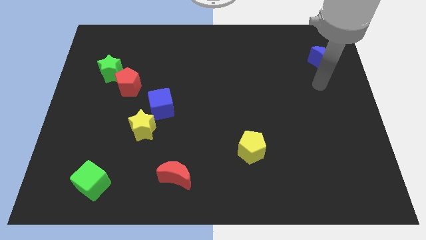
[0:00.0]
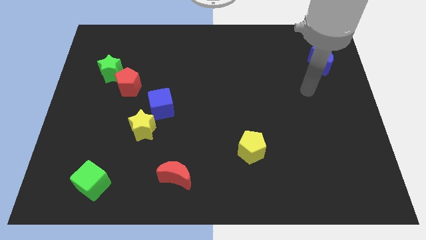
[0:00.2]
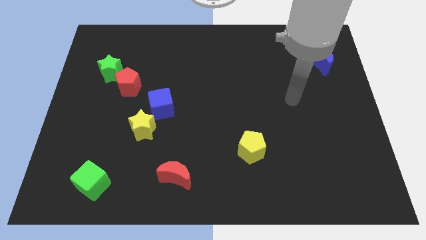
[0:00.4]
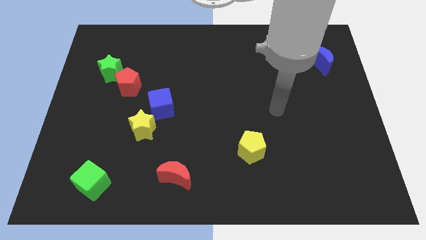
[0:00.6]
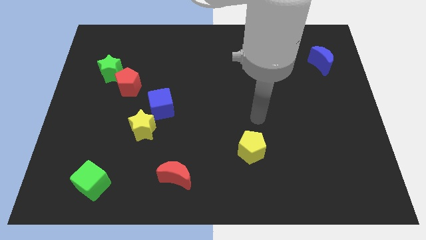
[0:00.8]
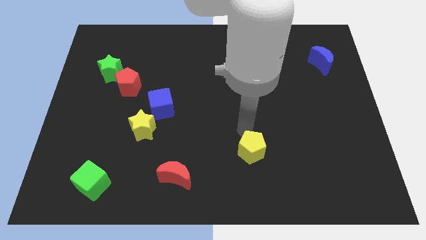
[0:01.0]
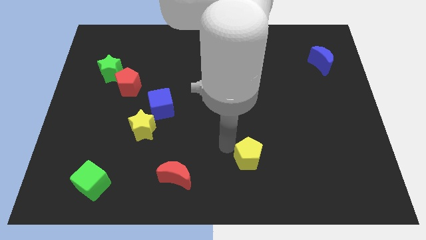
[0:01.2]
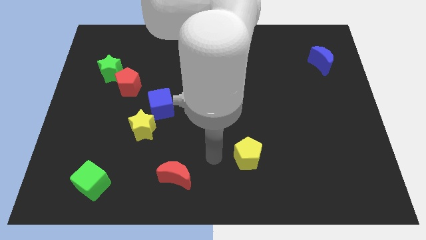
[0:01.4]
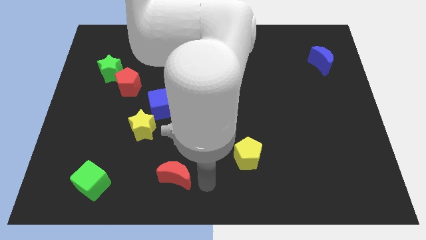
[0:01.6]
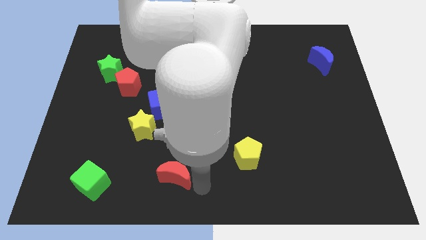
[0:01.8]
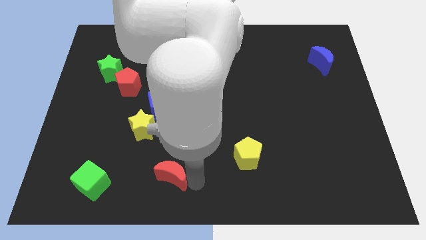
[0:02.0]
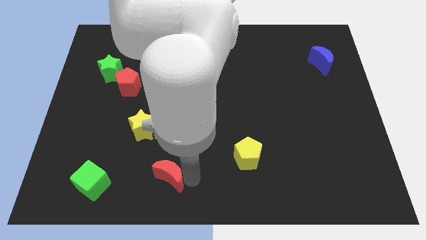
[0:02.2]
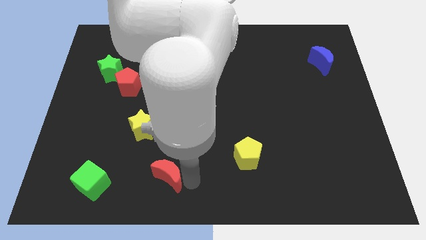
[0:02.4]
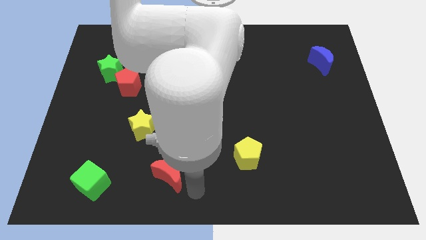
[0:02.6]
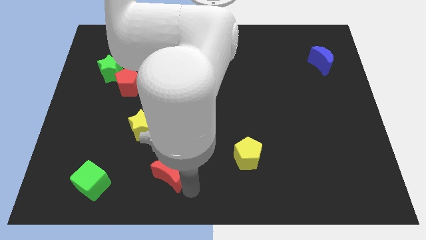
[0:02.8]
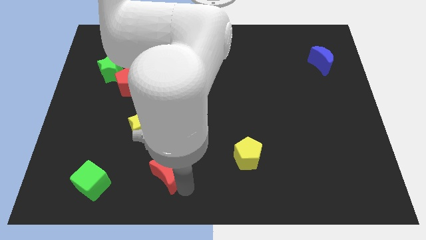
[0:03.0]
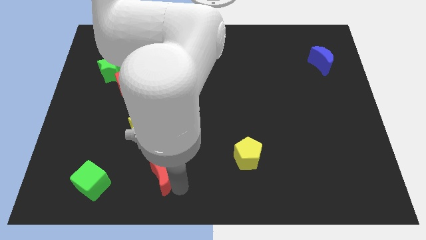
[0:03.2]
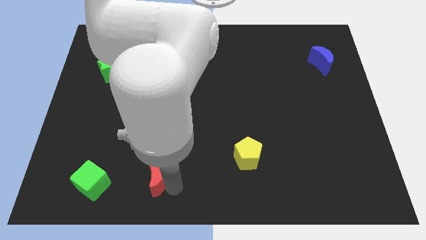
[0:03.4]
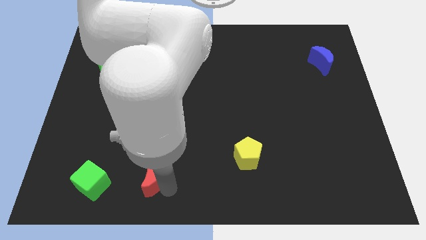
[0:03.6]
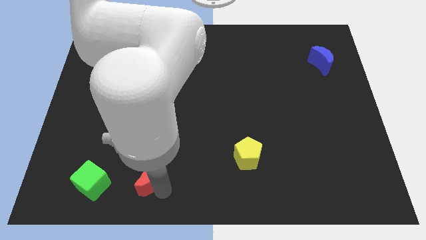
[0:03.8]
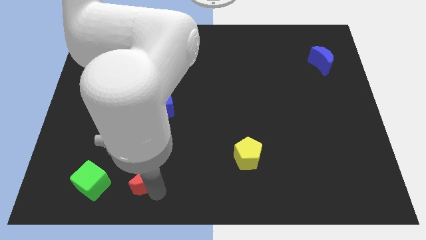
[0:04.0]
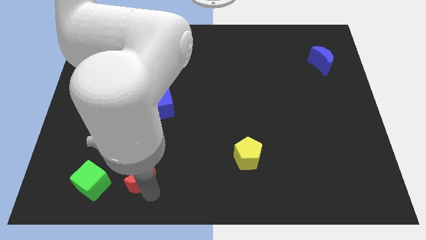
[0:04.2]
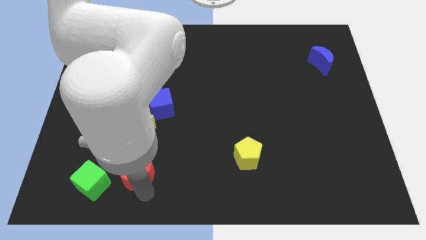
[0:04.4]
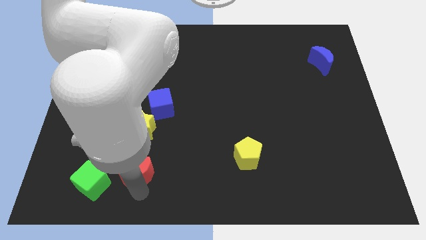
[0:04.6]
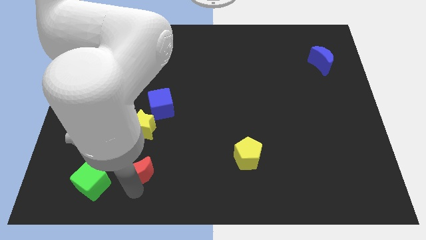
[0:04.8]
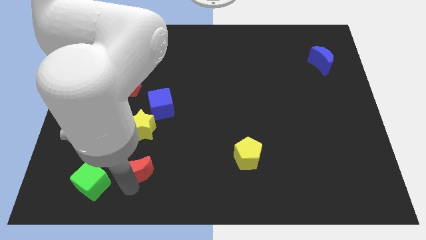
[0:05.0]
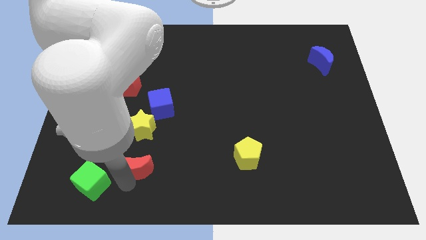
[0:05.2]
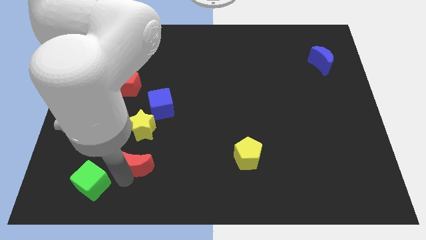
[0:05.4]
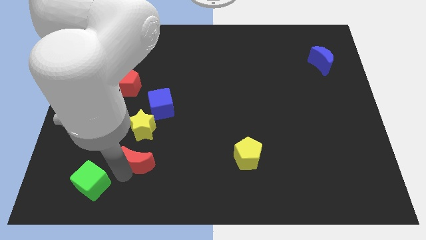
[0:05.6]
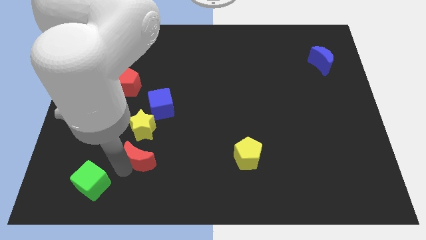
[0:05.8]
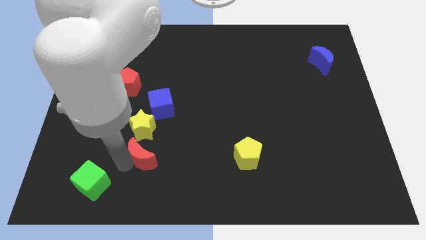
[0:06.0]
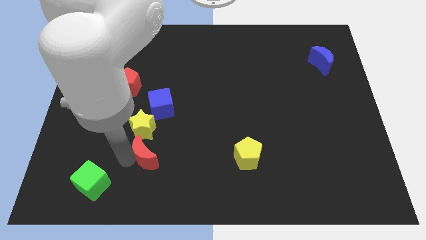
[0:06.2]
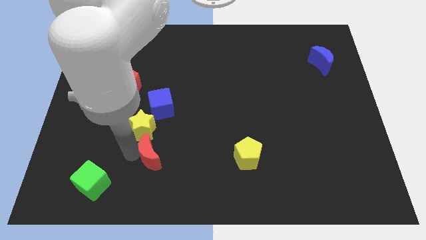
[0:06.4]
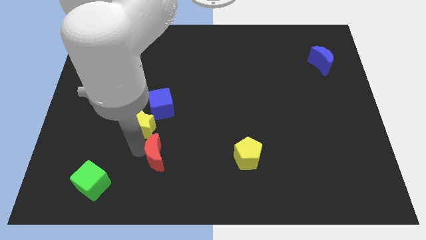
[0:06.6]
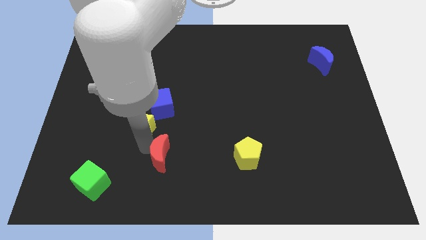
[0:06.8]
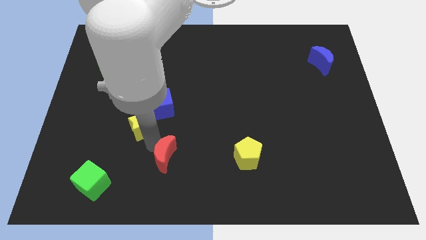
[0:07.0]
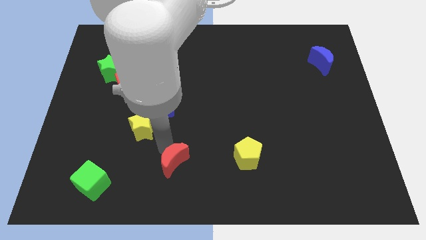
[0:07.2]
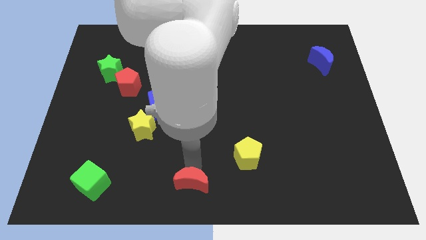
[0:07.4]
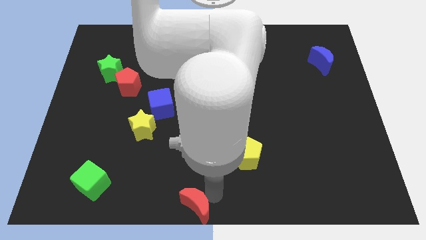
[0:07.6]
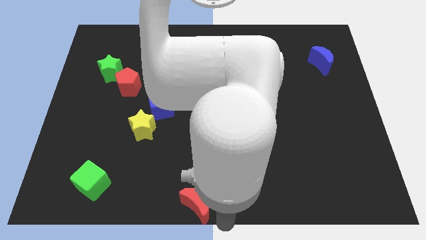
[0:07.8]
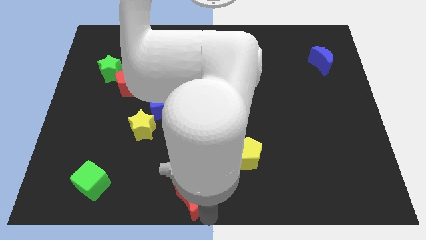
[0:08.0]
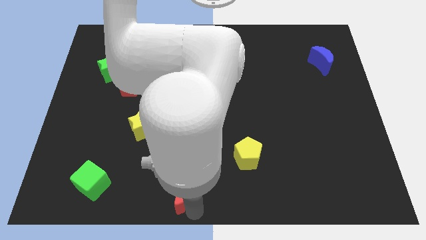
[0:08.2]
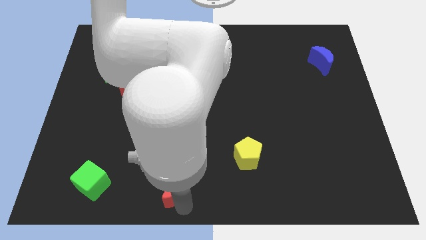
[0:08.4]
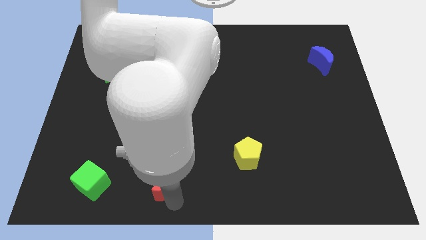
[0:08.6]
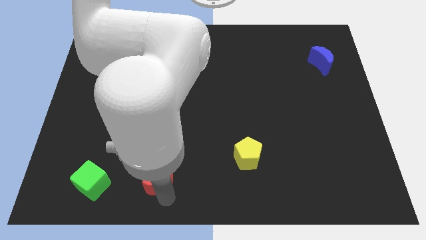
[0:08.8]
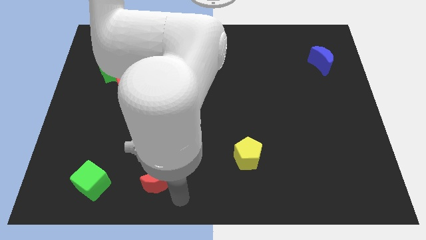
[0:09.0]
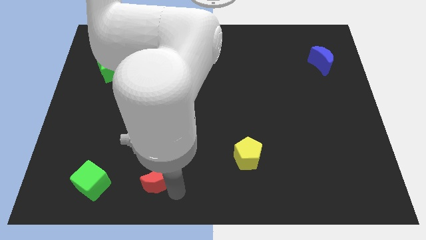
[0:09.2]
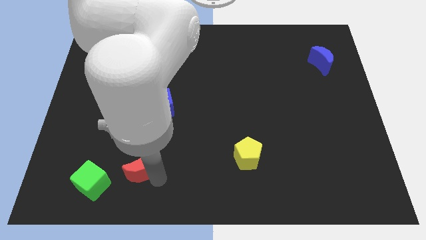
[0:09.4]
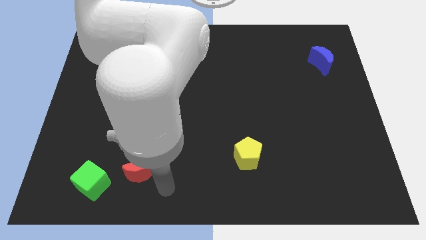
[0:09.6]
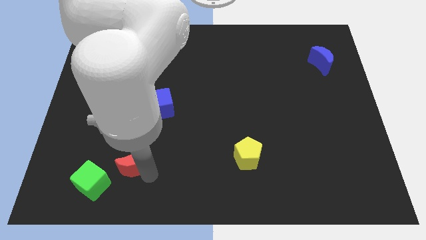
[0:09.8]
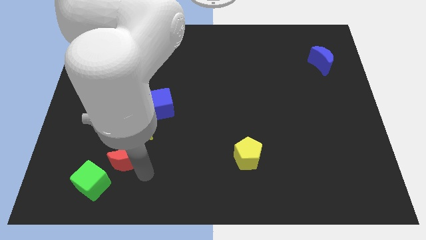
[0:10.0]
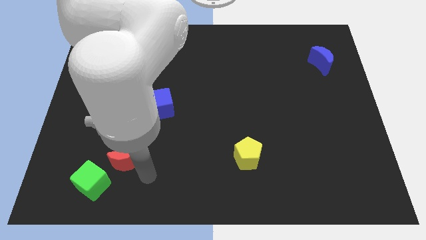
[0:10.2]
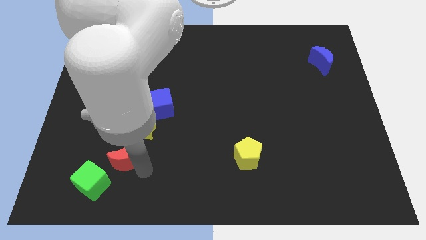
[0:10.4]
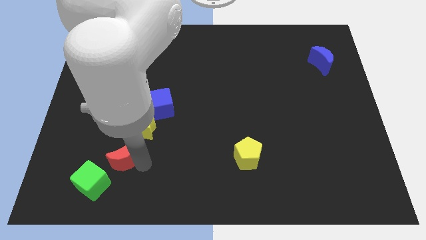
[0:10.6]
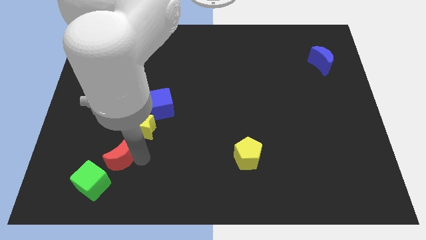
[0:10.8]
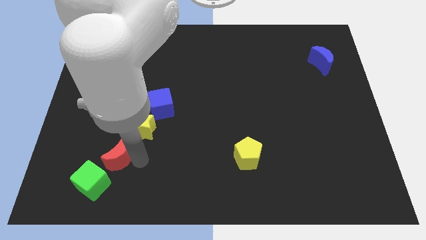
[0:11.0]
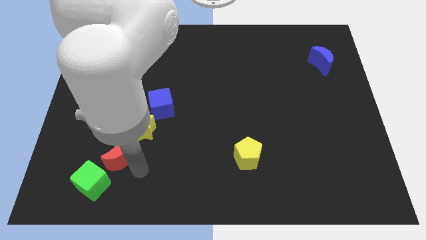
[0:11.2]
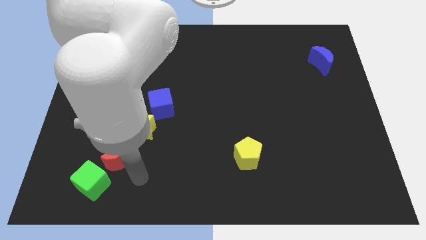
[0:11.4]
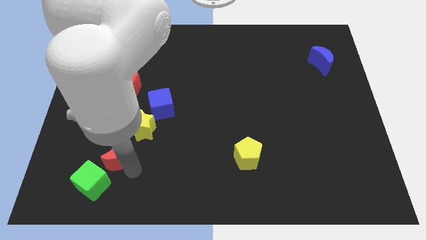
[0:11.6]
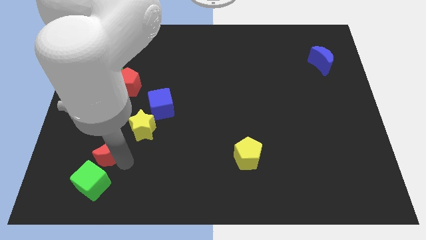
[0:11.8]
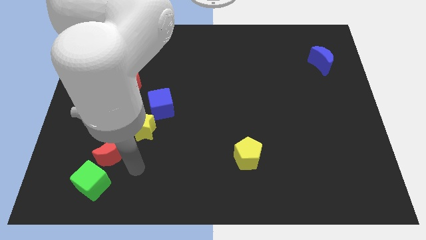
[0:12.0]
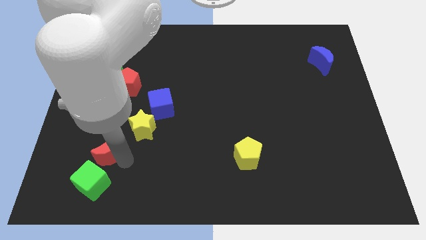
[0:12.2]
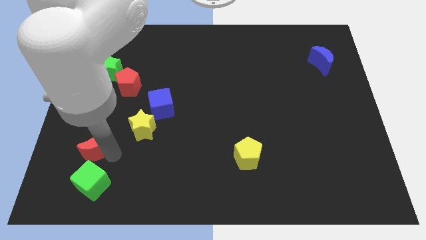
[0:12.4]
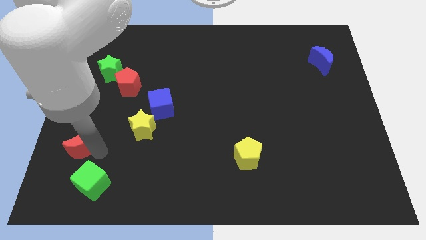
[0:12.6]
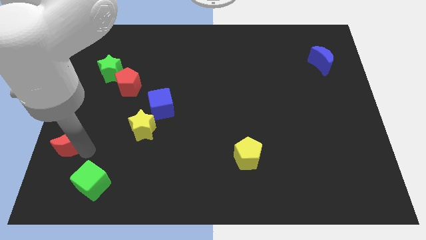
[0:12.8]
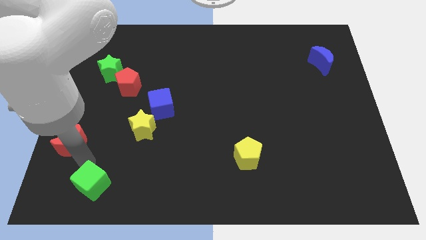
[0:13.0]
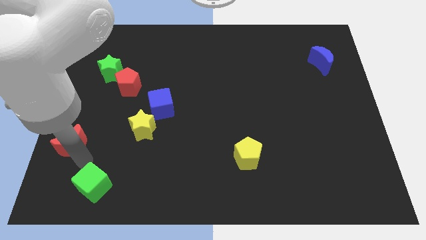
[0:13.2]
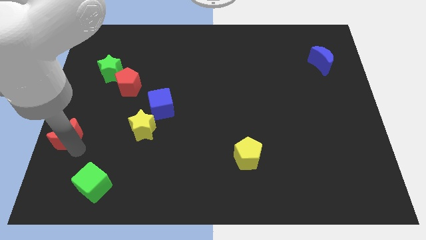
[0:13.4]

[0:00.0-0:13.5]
put the red moon to the center left

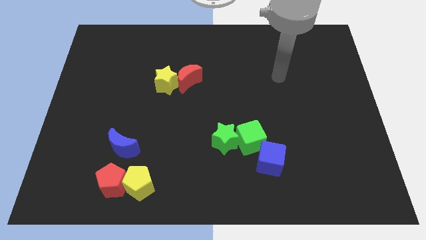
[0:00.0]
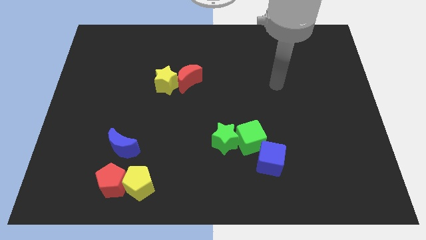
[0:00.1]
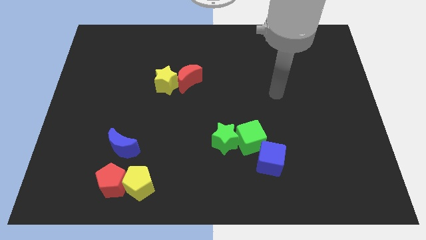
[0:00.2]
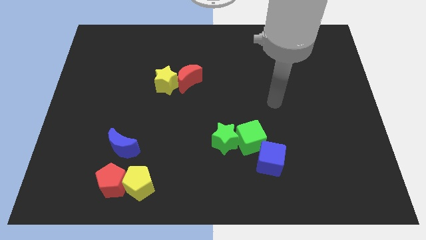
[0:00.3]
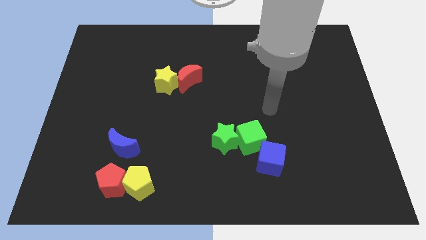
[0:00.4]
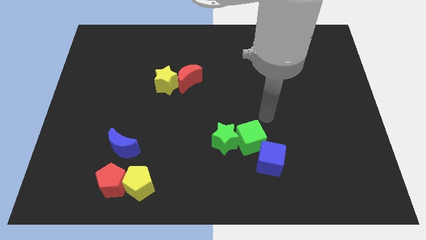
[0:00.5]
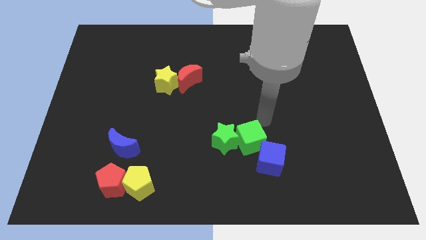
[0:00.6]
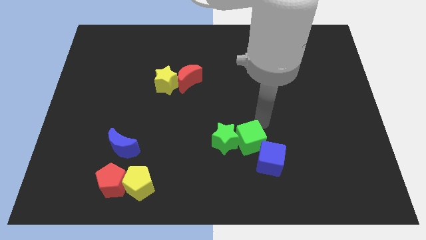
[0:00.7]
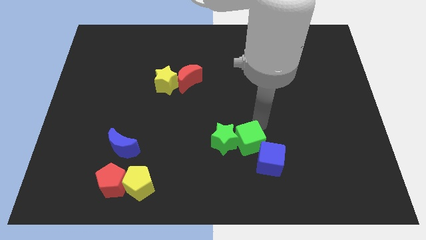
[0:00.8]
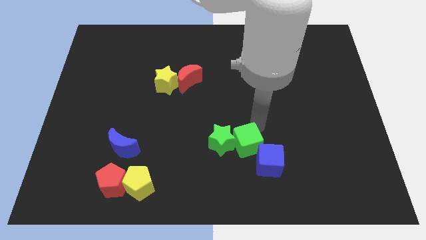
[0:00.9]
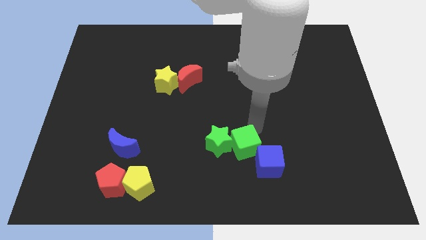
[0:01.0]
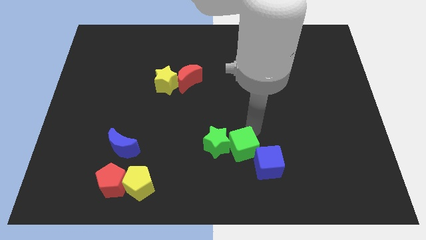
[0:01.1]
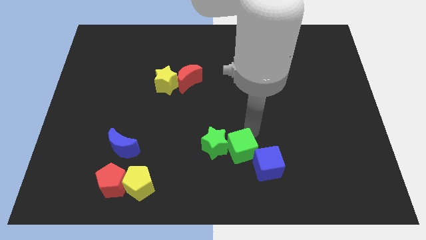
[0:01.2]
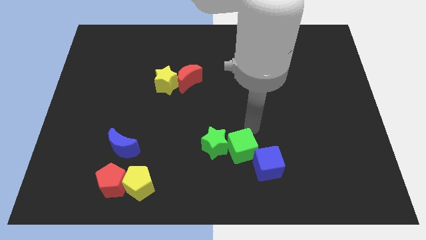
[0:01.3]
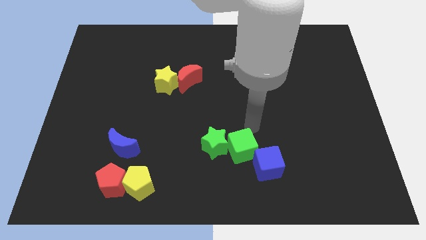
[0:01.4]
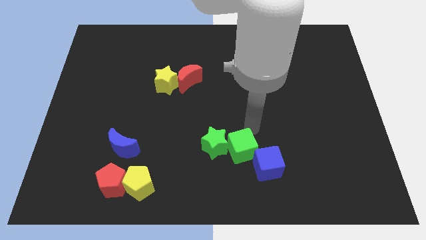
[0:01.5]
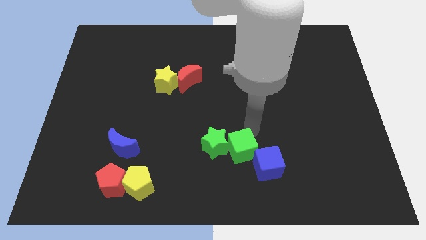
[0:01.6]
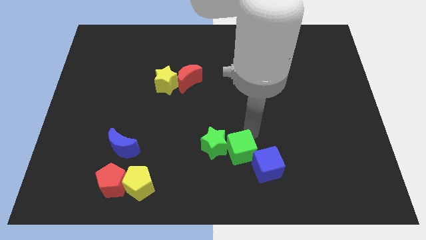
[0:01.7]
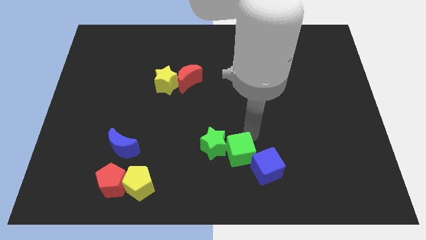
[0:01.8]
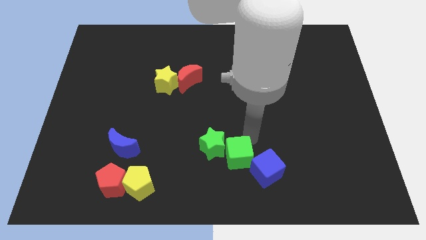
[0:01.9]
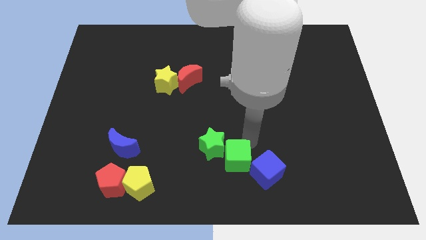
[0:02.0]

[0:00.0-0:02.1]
push the green cube to the bottom
